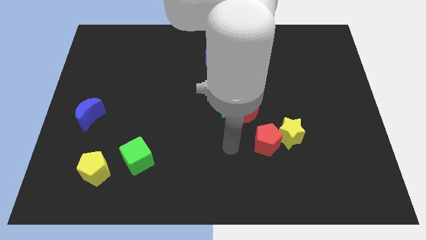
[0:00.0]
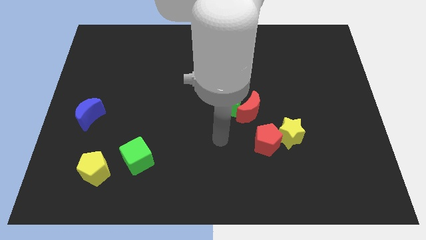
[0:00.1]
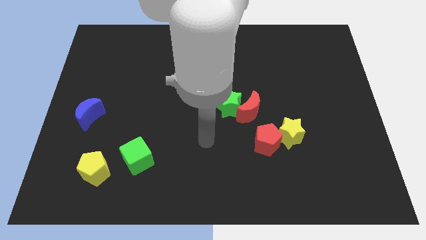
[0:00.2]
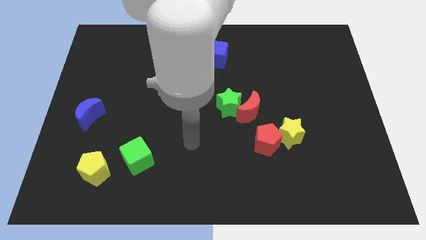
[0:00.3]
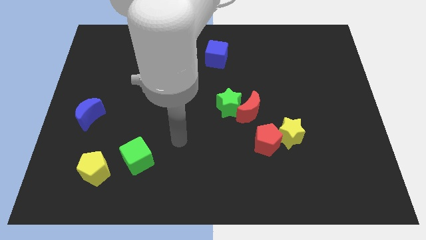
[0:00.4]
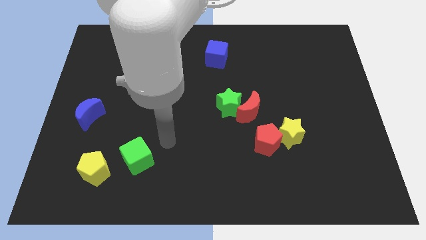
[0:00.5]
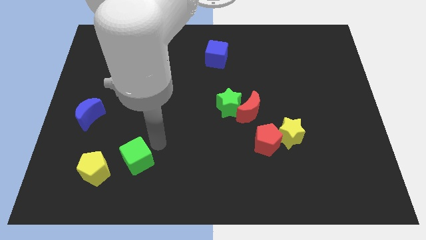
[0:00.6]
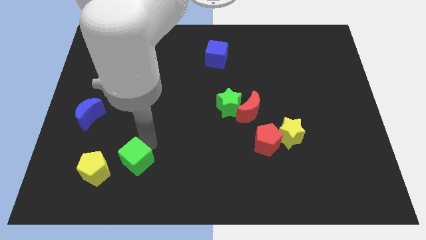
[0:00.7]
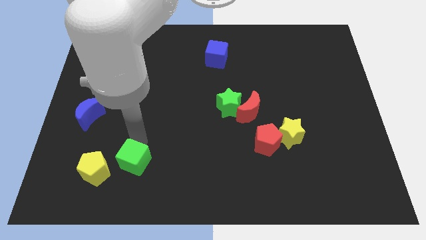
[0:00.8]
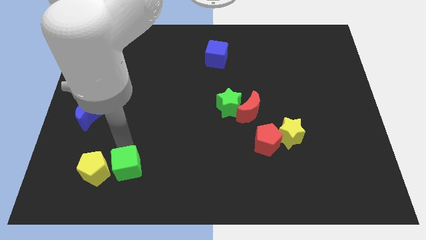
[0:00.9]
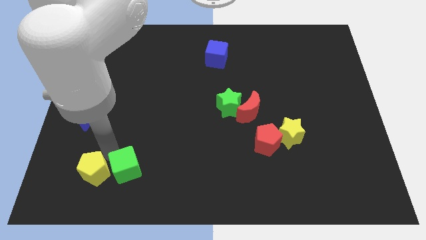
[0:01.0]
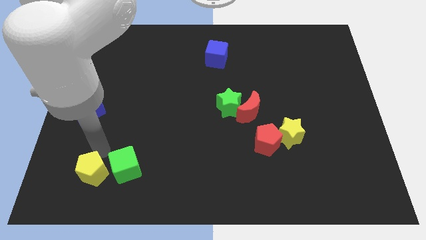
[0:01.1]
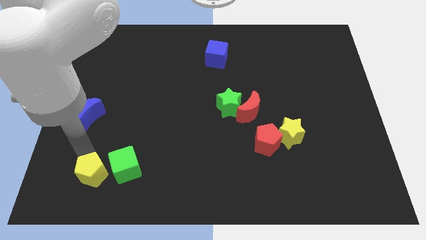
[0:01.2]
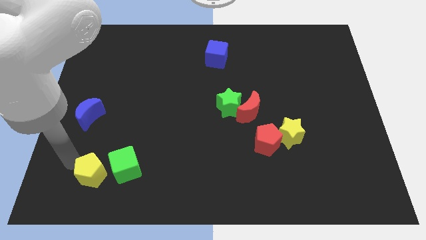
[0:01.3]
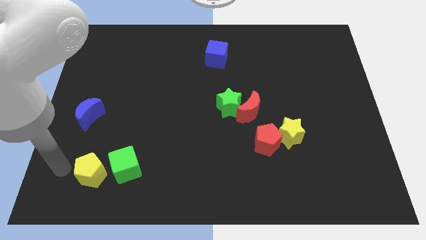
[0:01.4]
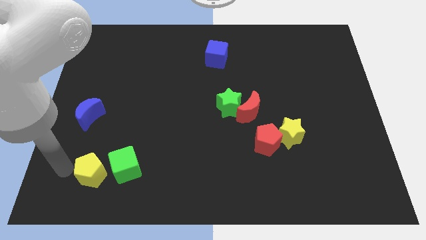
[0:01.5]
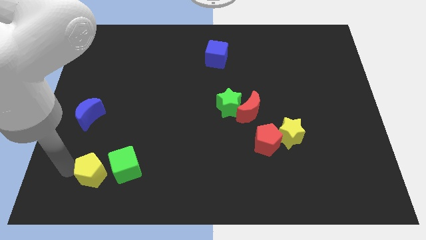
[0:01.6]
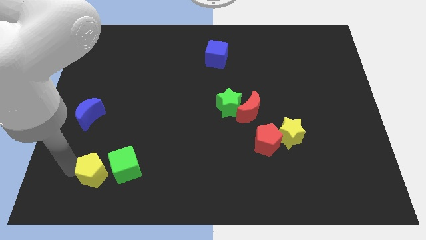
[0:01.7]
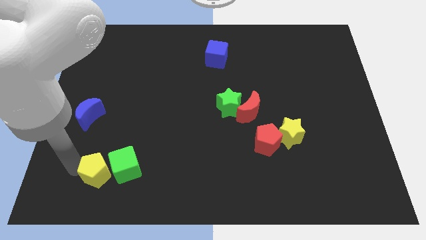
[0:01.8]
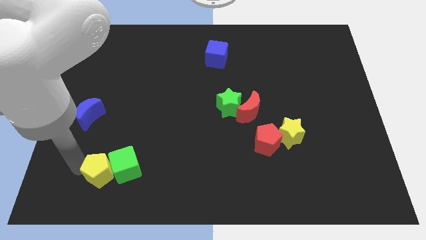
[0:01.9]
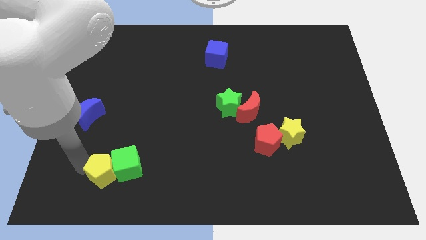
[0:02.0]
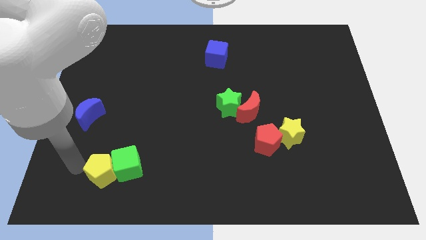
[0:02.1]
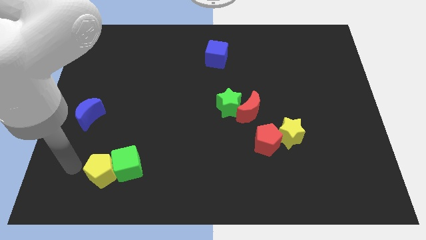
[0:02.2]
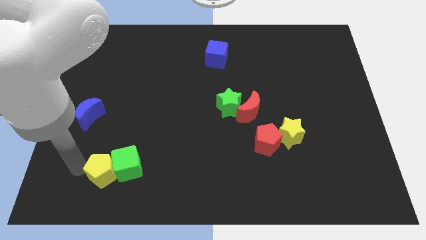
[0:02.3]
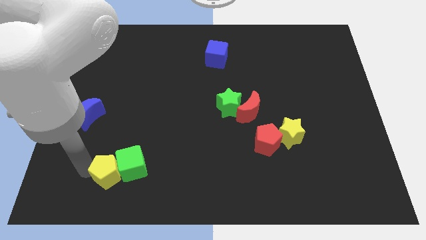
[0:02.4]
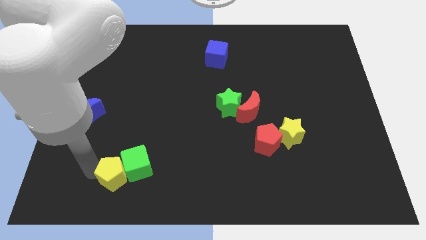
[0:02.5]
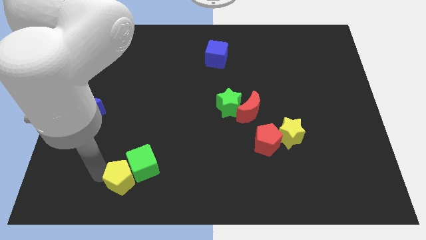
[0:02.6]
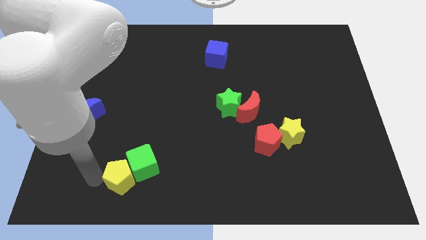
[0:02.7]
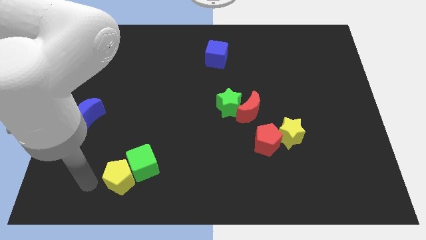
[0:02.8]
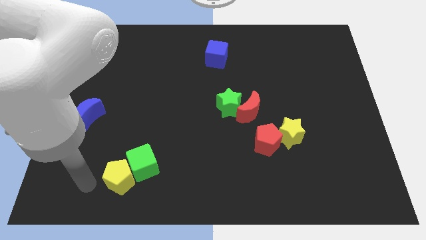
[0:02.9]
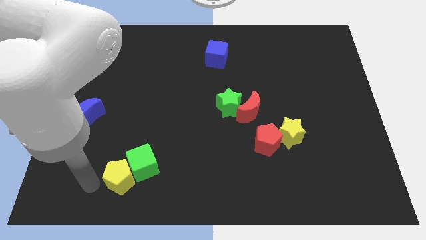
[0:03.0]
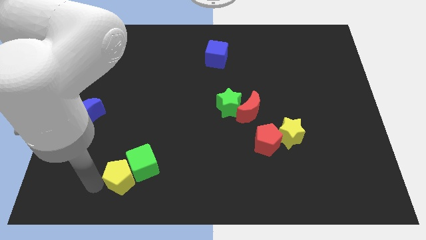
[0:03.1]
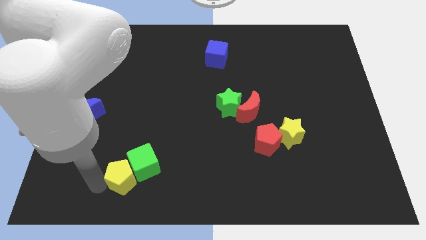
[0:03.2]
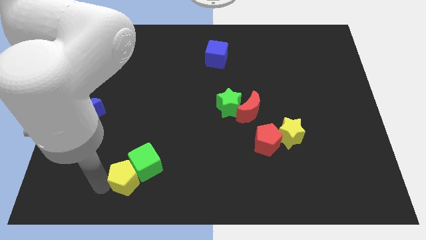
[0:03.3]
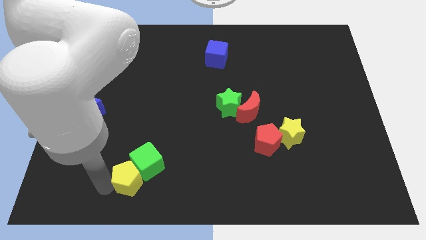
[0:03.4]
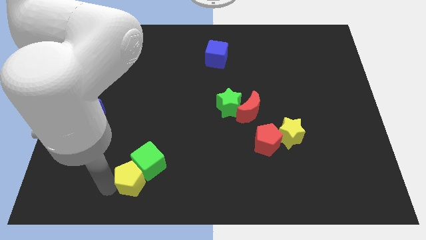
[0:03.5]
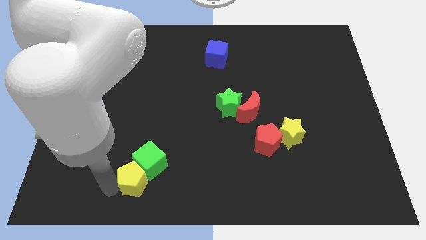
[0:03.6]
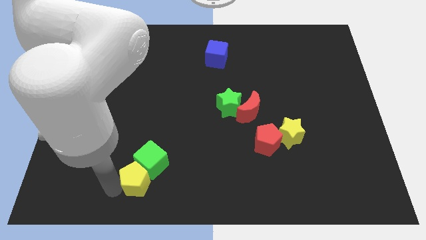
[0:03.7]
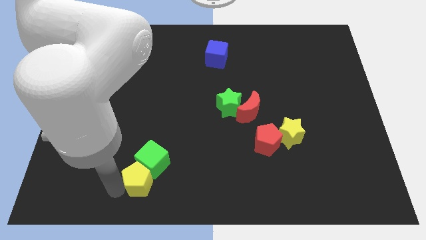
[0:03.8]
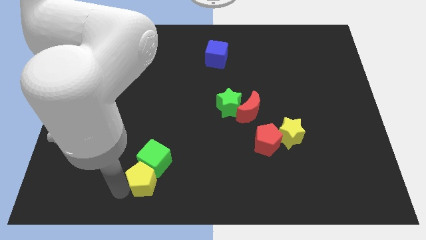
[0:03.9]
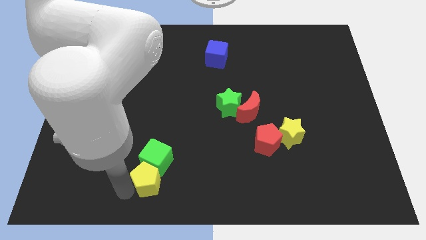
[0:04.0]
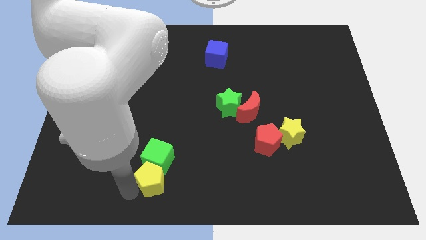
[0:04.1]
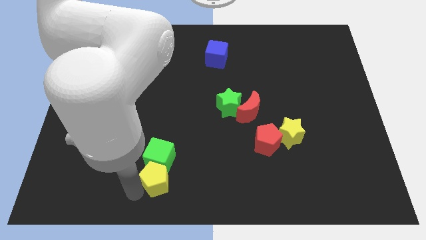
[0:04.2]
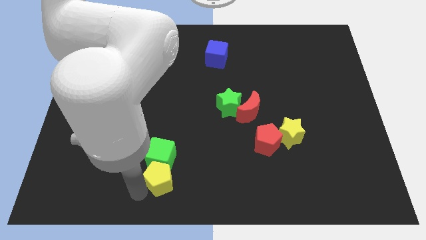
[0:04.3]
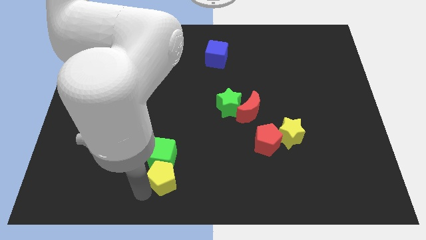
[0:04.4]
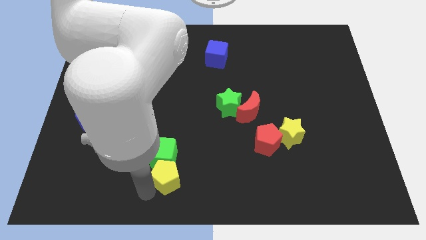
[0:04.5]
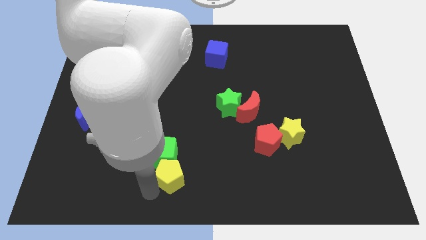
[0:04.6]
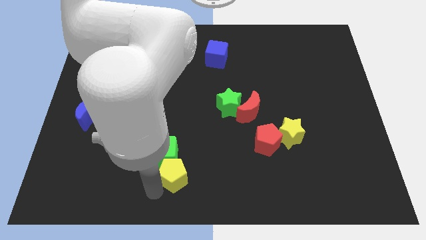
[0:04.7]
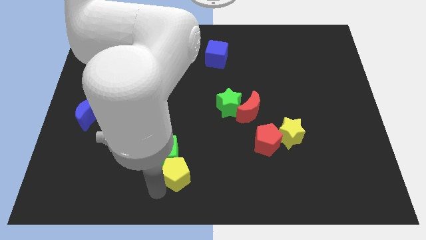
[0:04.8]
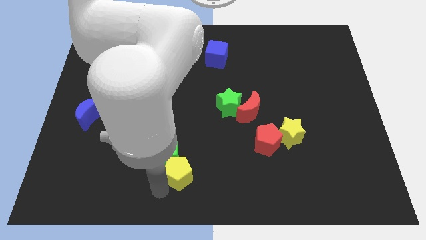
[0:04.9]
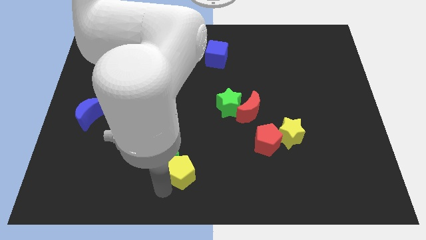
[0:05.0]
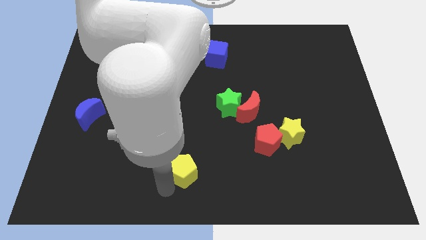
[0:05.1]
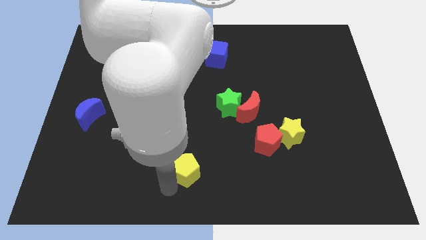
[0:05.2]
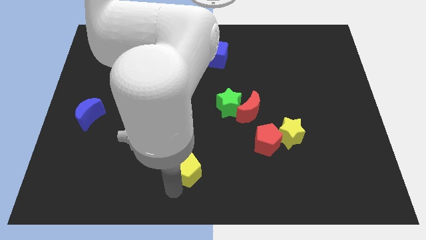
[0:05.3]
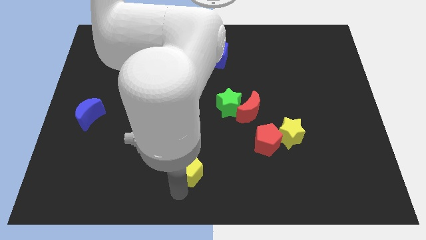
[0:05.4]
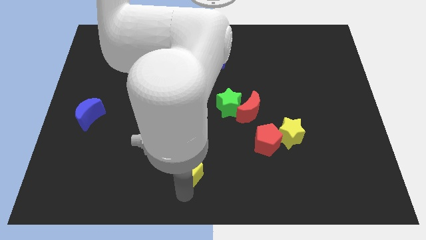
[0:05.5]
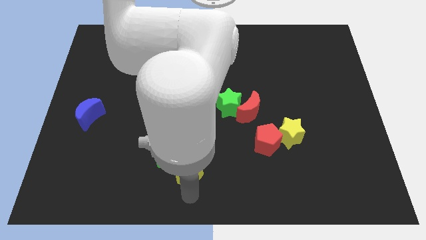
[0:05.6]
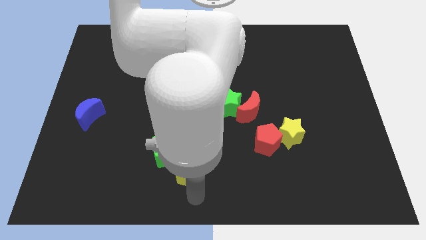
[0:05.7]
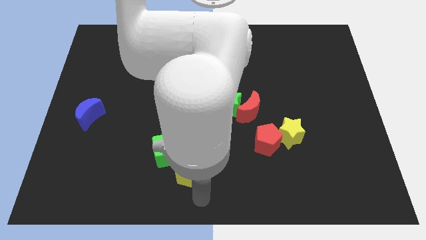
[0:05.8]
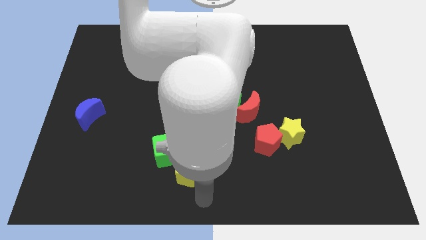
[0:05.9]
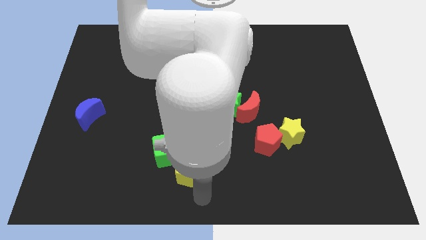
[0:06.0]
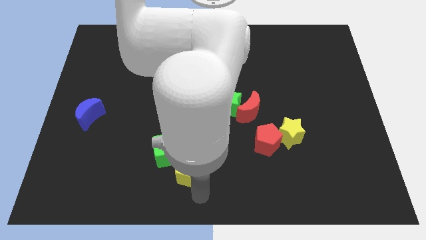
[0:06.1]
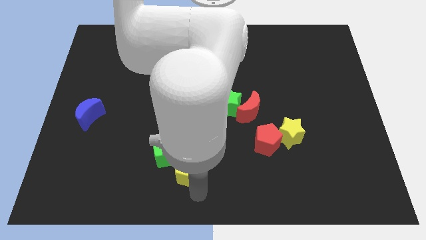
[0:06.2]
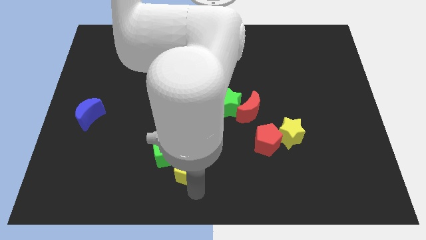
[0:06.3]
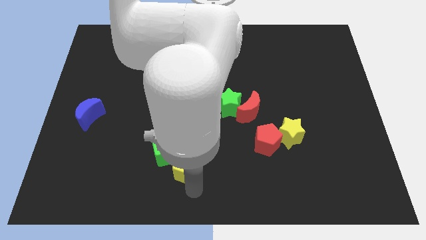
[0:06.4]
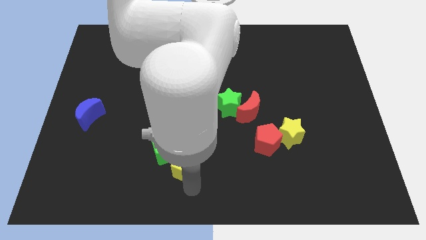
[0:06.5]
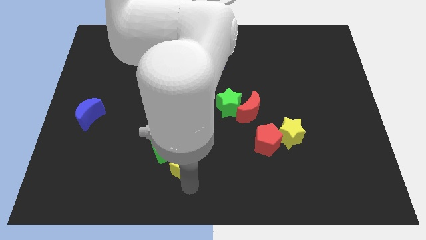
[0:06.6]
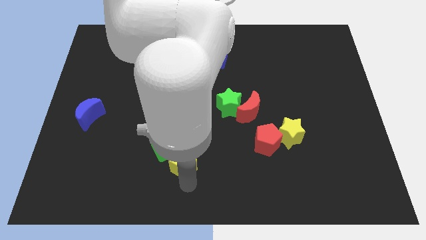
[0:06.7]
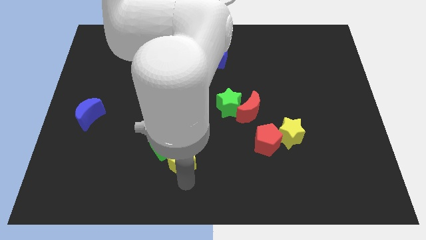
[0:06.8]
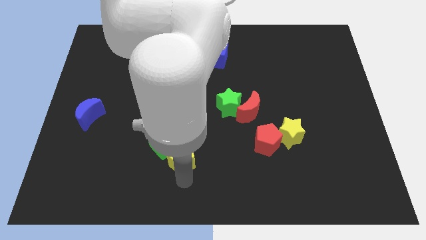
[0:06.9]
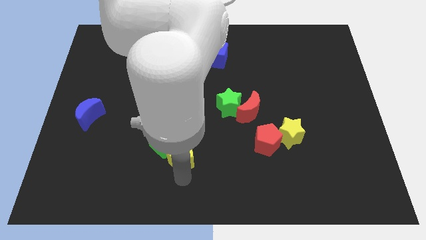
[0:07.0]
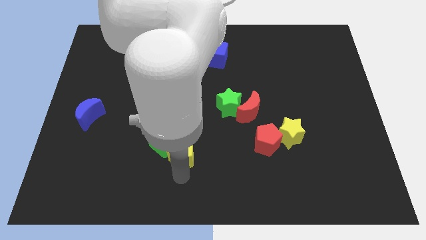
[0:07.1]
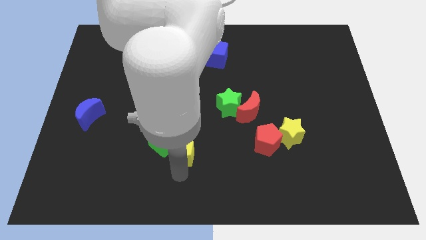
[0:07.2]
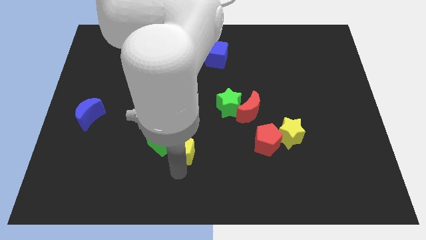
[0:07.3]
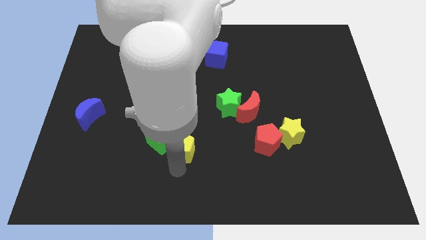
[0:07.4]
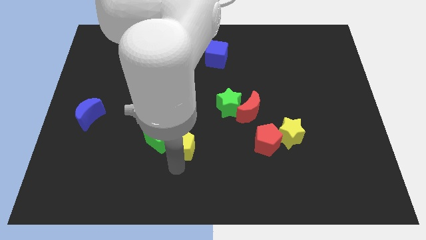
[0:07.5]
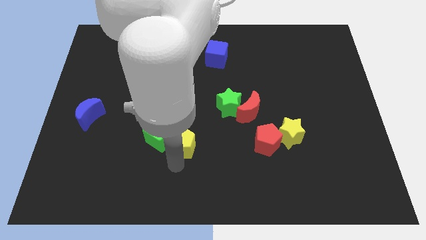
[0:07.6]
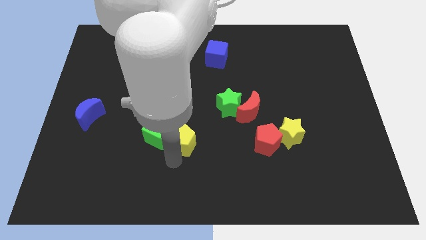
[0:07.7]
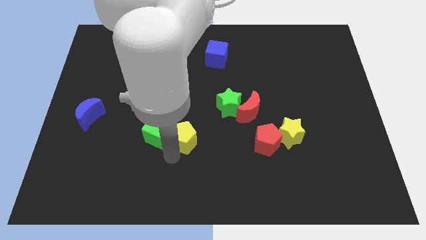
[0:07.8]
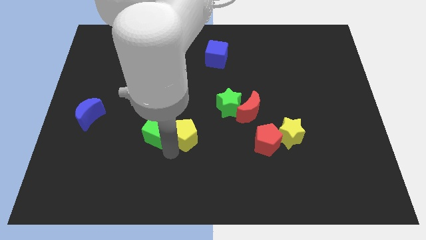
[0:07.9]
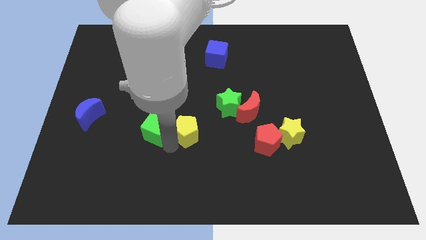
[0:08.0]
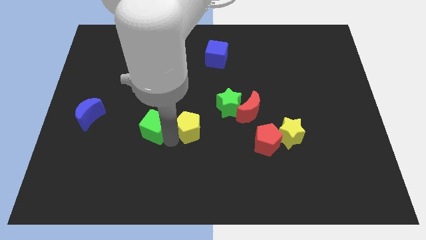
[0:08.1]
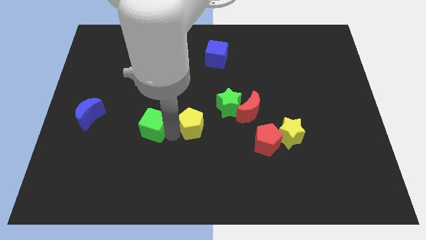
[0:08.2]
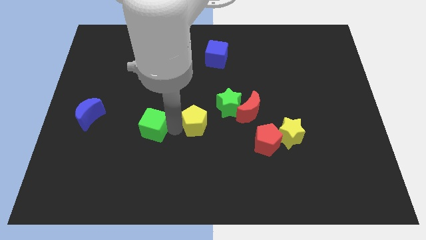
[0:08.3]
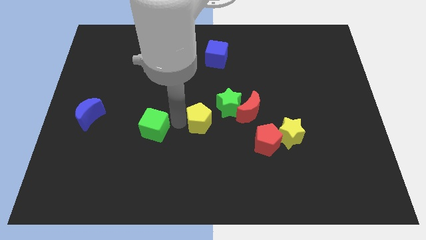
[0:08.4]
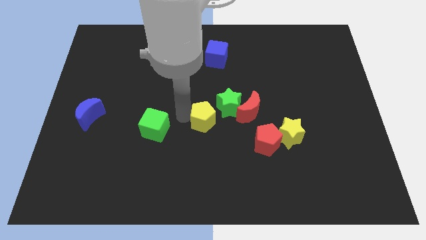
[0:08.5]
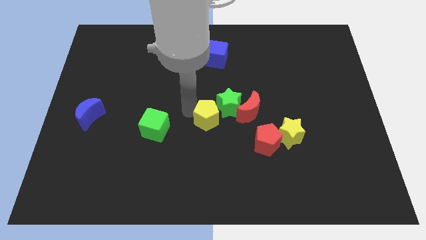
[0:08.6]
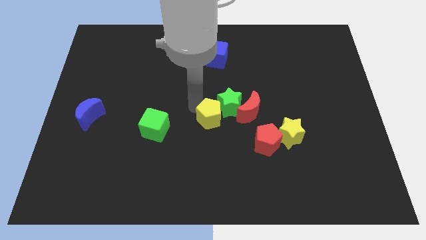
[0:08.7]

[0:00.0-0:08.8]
move the yellow pentagon to the bottom side of the green star
